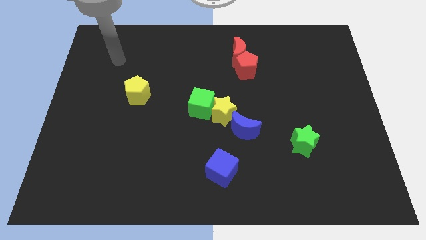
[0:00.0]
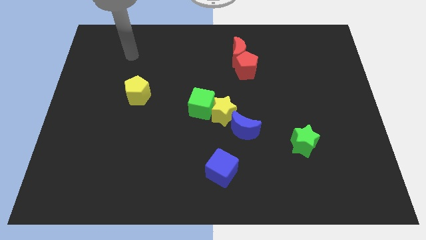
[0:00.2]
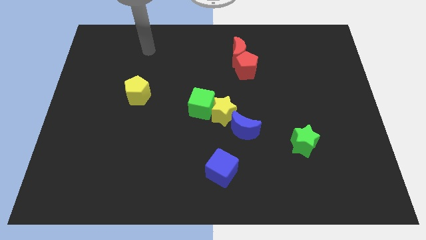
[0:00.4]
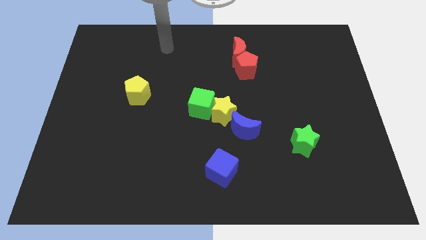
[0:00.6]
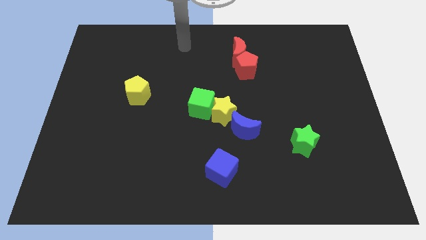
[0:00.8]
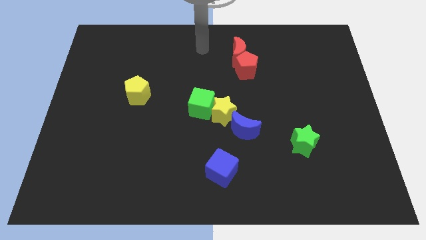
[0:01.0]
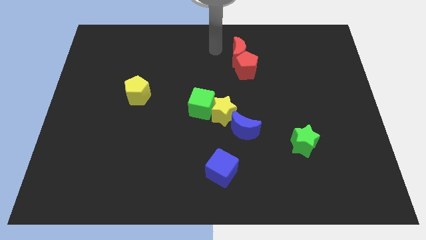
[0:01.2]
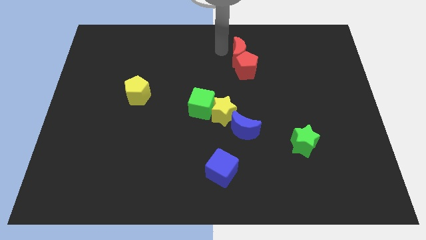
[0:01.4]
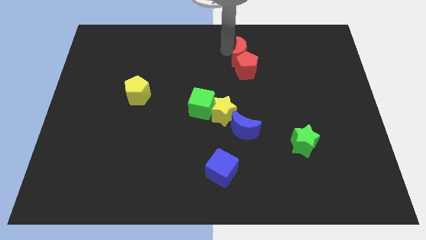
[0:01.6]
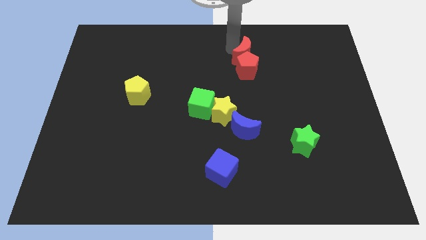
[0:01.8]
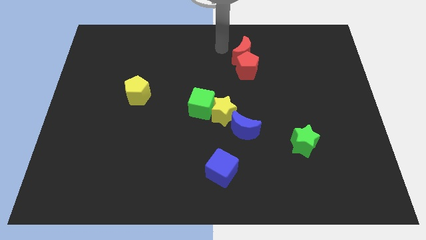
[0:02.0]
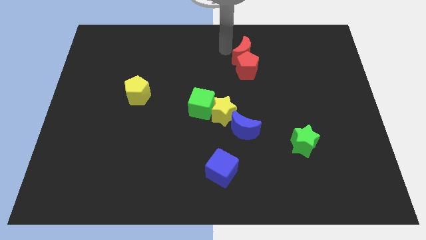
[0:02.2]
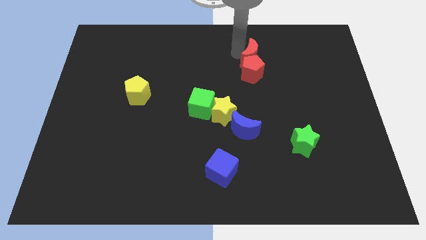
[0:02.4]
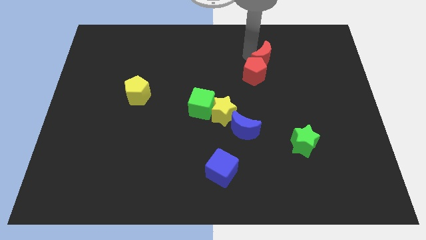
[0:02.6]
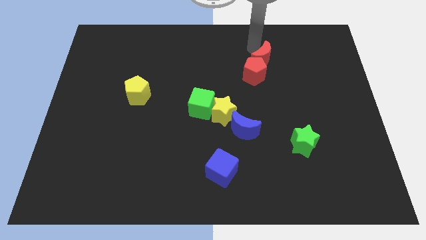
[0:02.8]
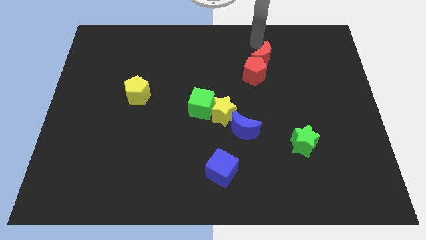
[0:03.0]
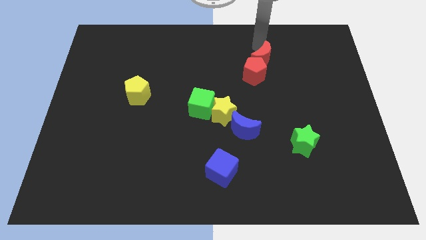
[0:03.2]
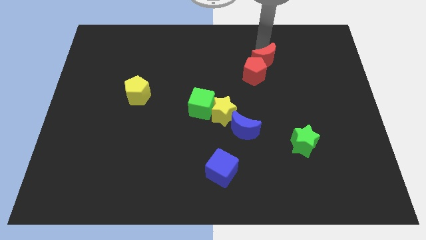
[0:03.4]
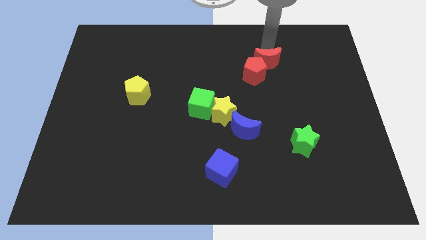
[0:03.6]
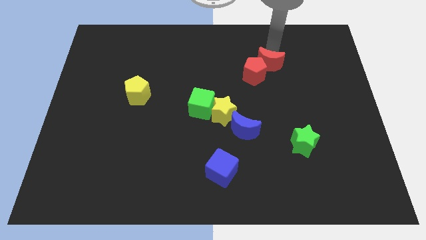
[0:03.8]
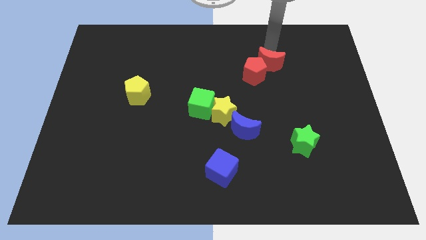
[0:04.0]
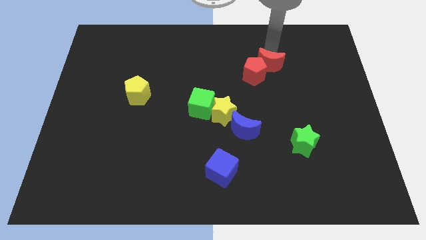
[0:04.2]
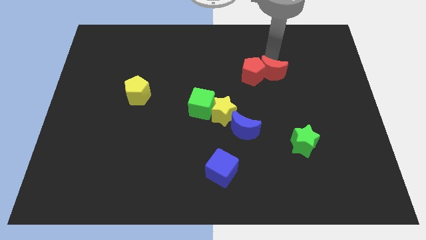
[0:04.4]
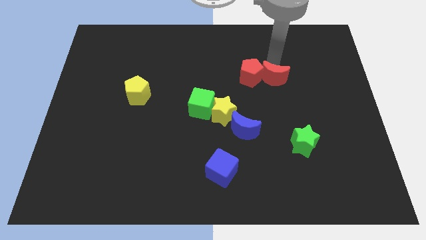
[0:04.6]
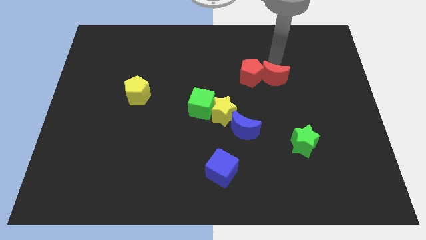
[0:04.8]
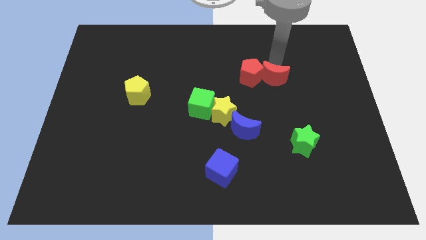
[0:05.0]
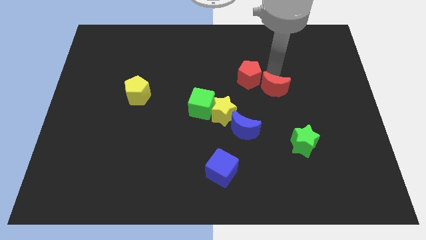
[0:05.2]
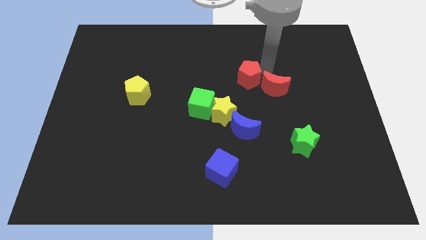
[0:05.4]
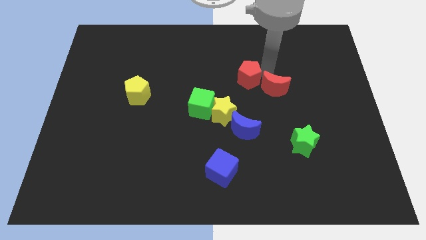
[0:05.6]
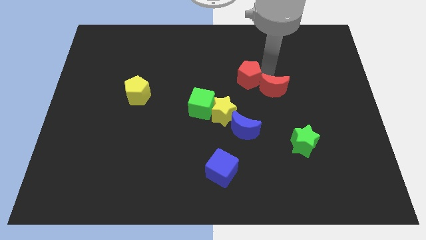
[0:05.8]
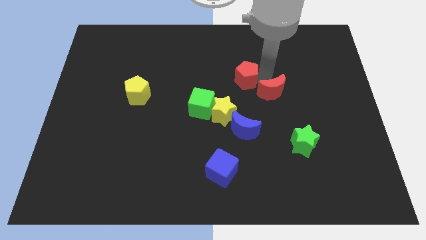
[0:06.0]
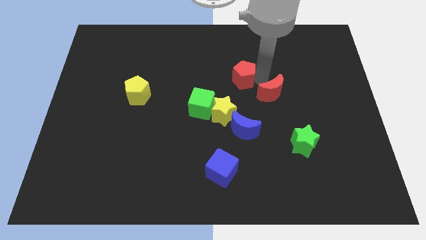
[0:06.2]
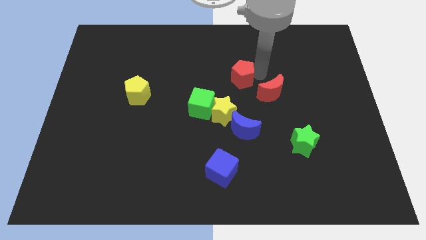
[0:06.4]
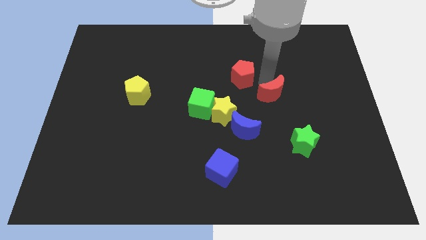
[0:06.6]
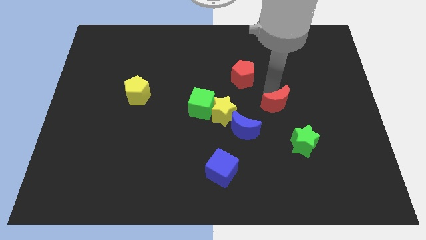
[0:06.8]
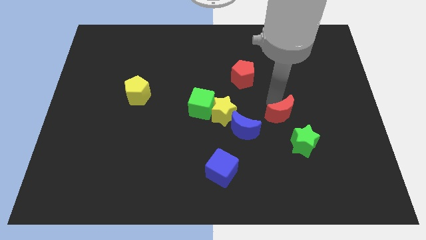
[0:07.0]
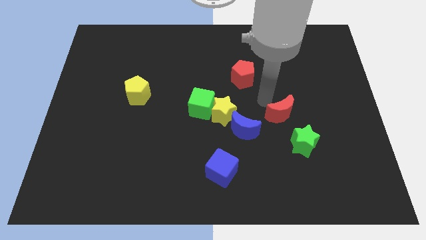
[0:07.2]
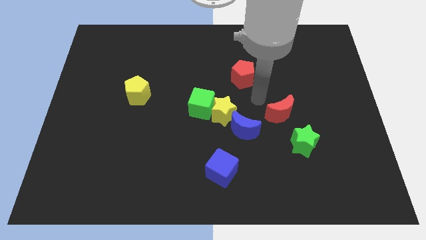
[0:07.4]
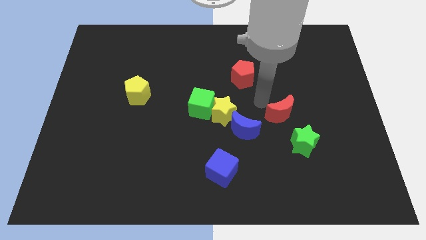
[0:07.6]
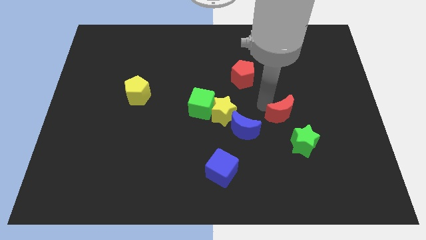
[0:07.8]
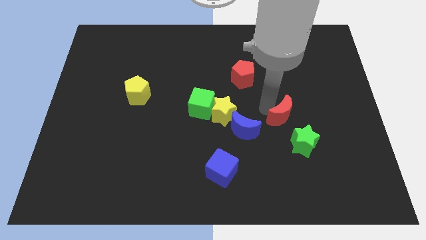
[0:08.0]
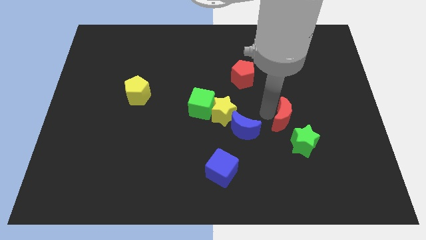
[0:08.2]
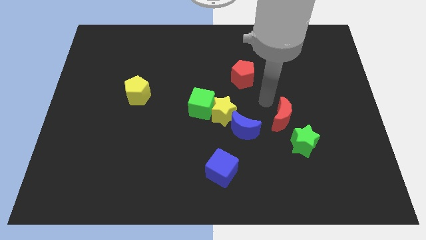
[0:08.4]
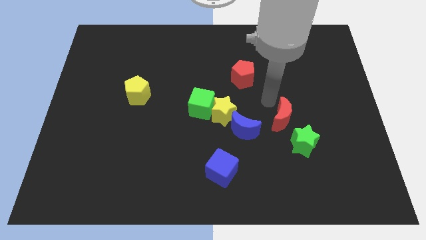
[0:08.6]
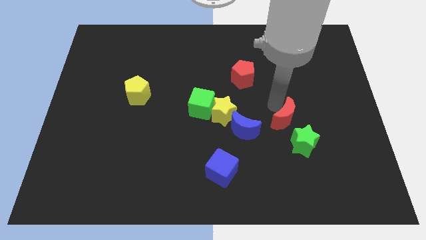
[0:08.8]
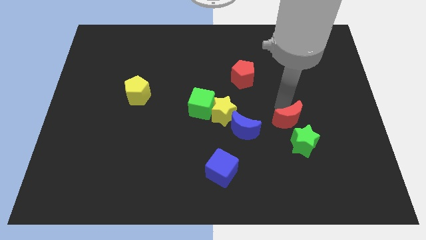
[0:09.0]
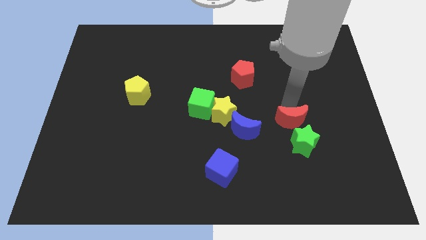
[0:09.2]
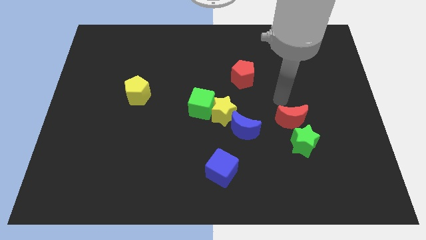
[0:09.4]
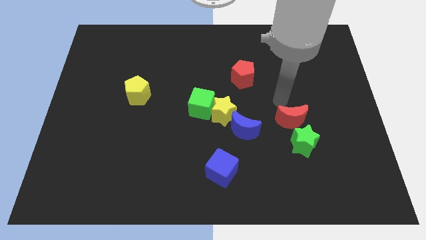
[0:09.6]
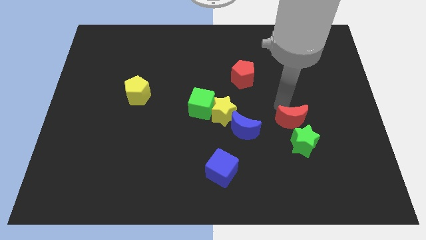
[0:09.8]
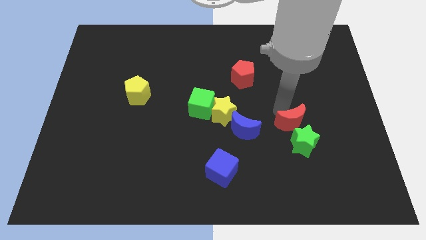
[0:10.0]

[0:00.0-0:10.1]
put the red moon next to the green star

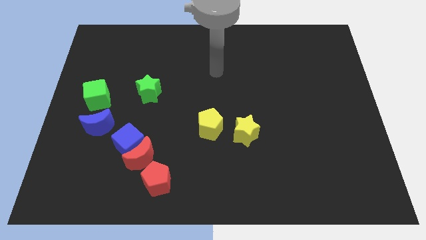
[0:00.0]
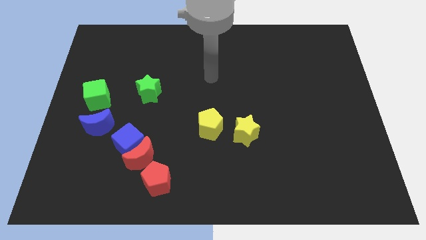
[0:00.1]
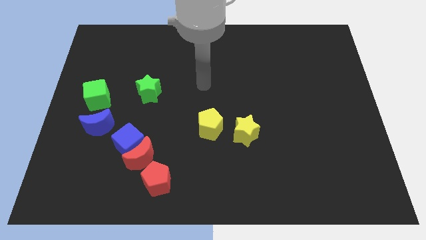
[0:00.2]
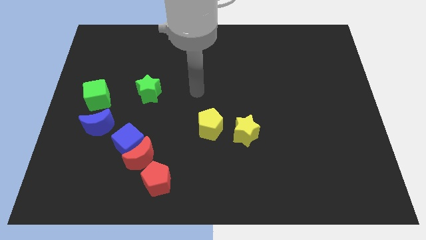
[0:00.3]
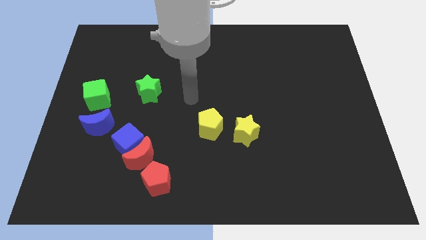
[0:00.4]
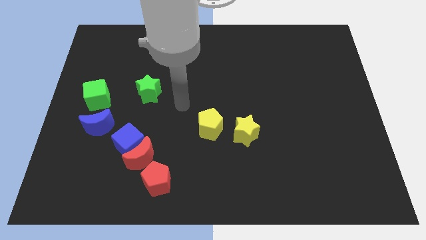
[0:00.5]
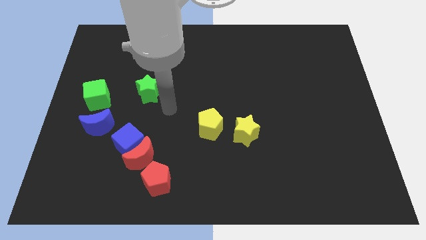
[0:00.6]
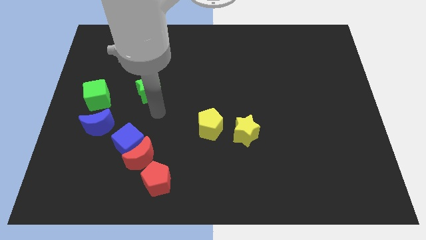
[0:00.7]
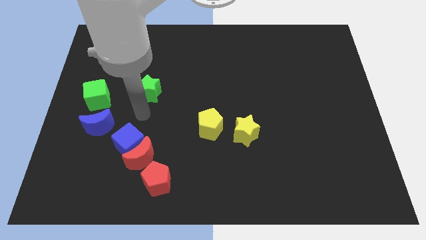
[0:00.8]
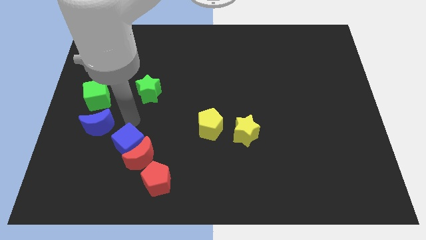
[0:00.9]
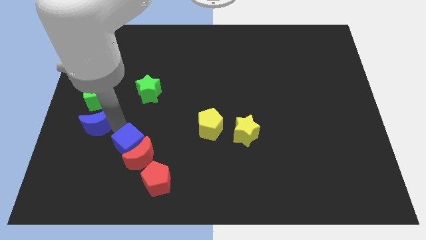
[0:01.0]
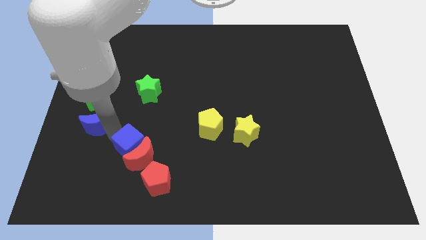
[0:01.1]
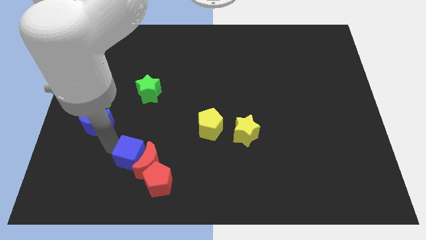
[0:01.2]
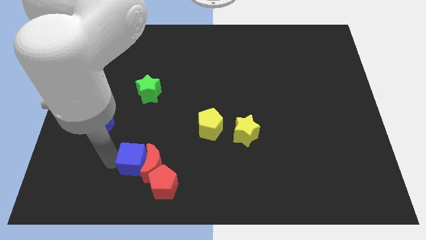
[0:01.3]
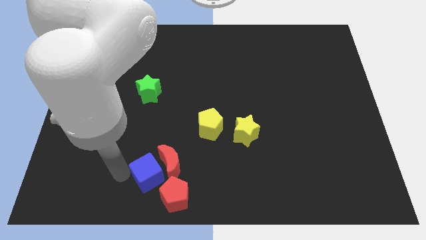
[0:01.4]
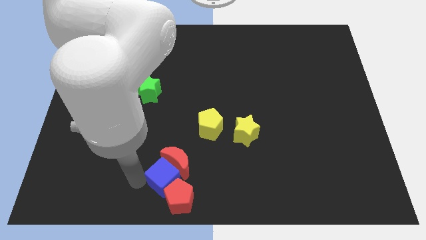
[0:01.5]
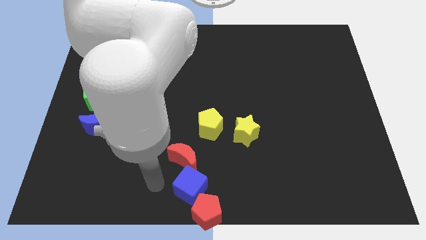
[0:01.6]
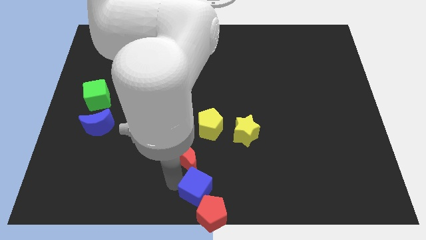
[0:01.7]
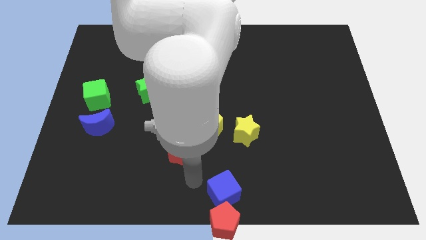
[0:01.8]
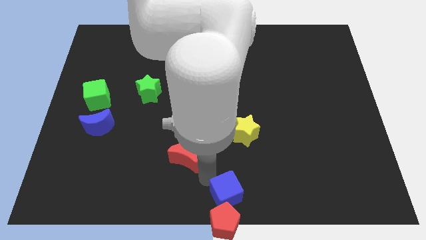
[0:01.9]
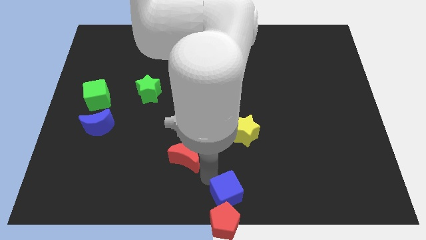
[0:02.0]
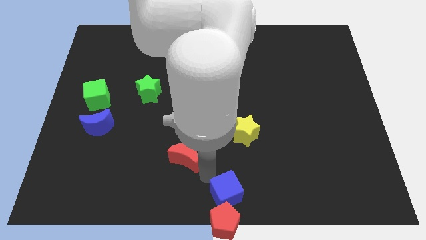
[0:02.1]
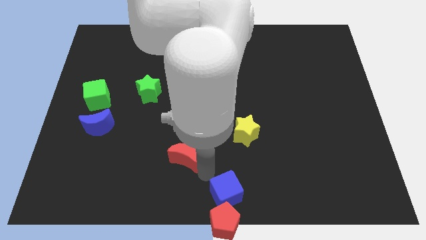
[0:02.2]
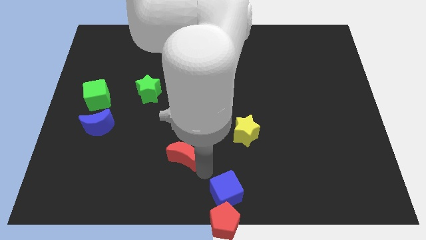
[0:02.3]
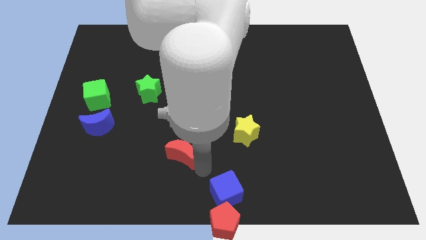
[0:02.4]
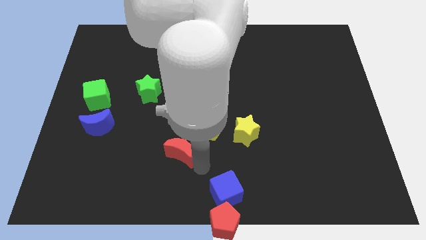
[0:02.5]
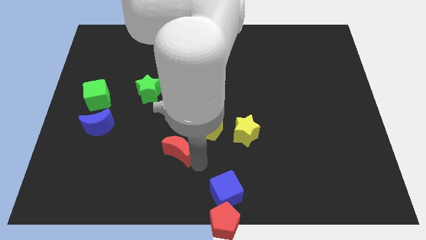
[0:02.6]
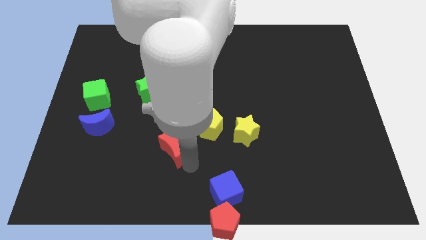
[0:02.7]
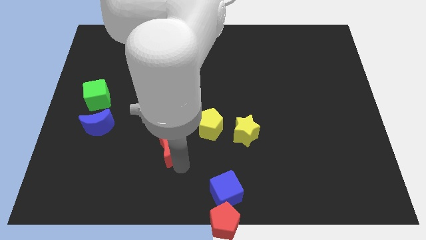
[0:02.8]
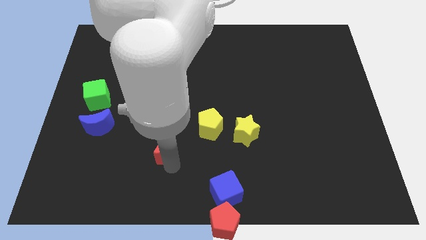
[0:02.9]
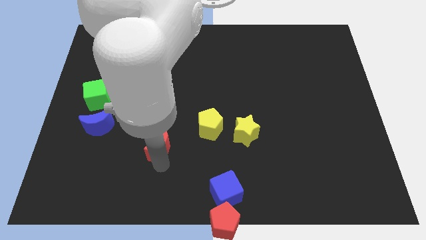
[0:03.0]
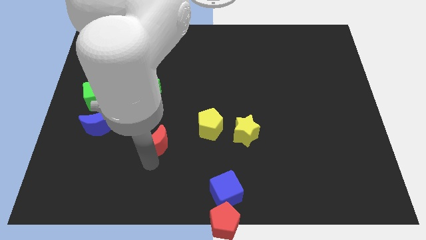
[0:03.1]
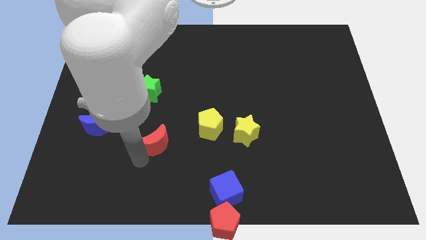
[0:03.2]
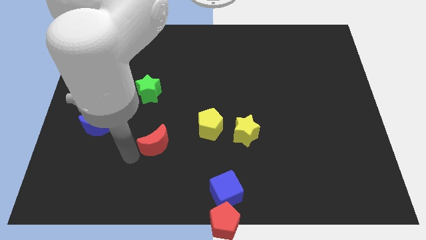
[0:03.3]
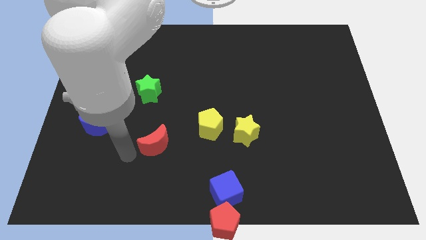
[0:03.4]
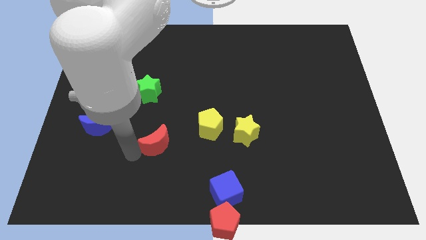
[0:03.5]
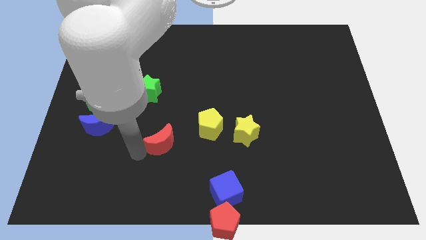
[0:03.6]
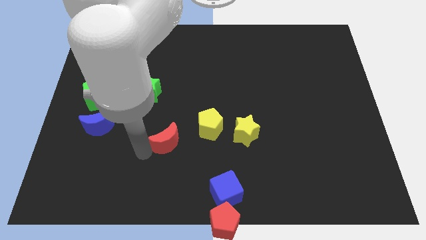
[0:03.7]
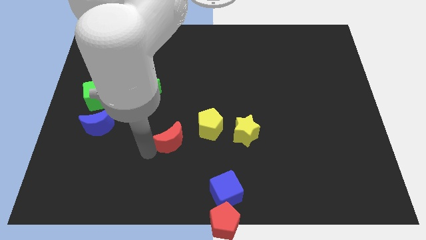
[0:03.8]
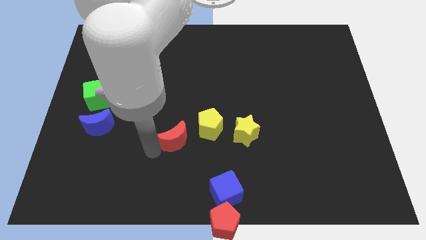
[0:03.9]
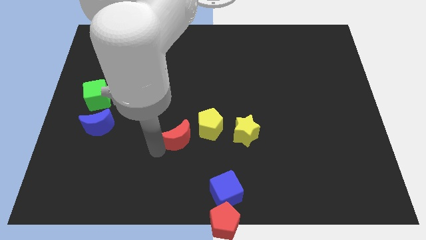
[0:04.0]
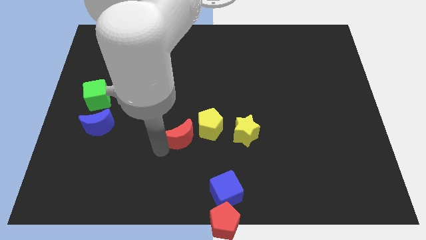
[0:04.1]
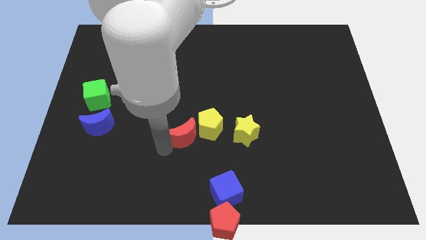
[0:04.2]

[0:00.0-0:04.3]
move the red moon to the yellow pentagon
